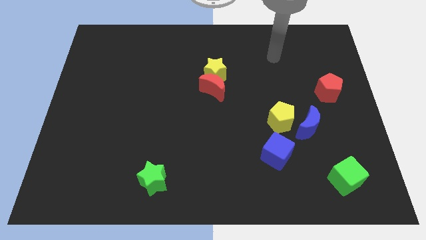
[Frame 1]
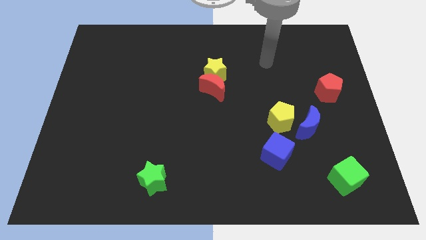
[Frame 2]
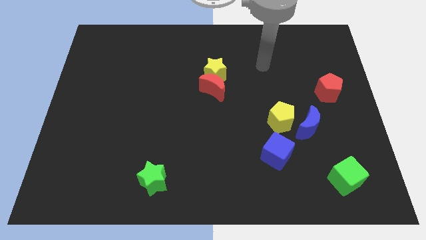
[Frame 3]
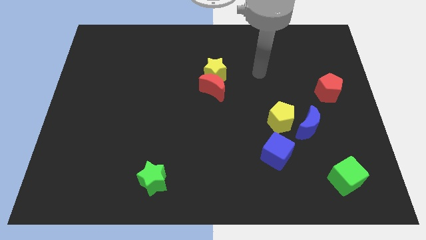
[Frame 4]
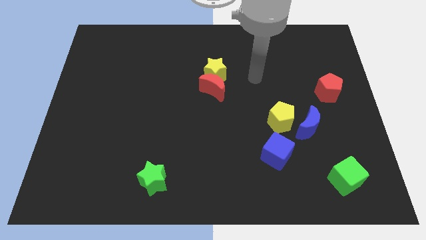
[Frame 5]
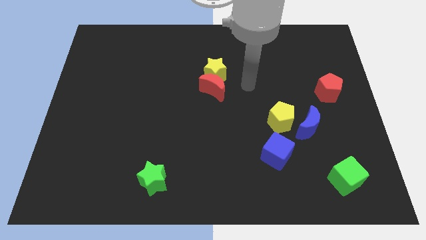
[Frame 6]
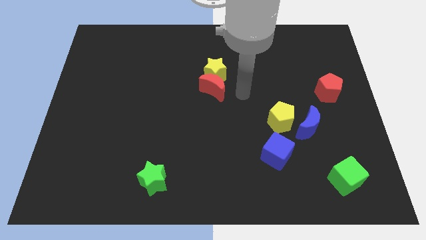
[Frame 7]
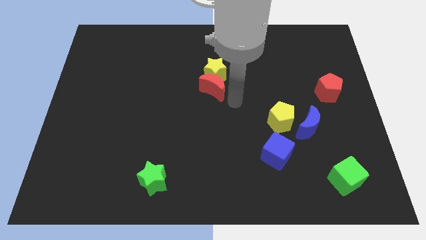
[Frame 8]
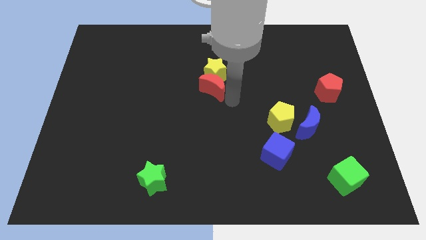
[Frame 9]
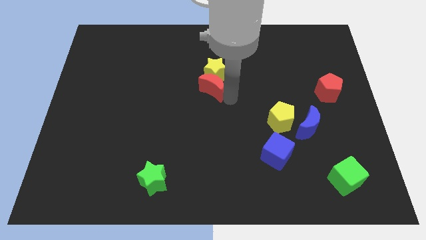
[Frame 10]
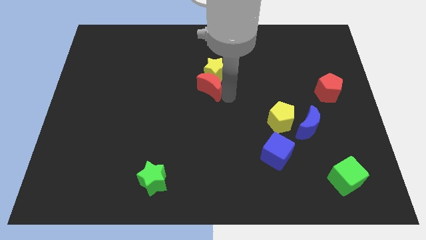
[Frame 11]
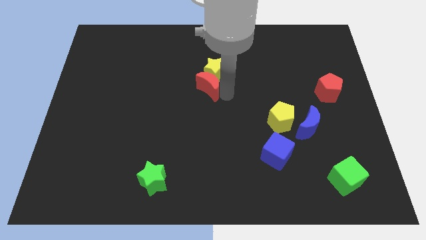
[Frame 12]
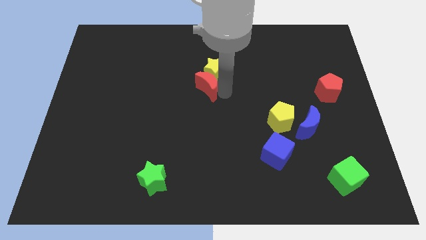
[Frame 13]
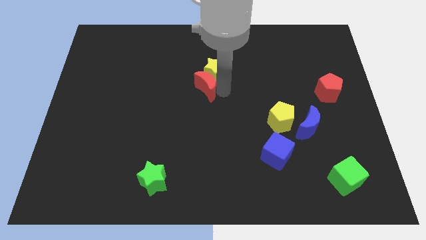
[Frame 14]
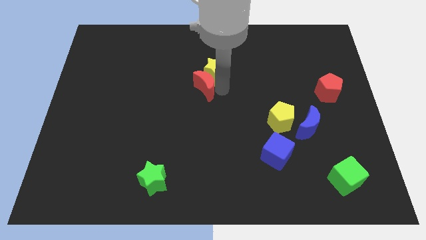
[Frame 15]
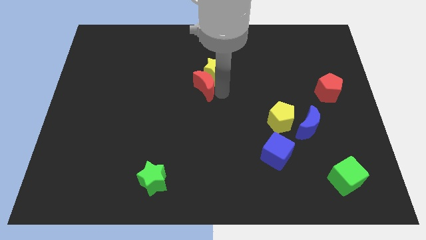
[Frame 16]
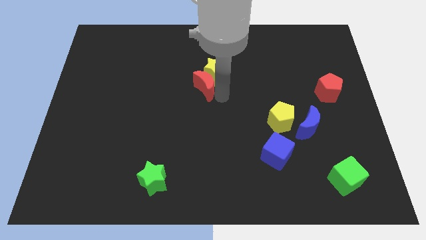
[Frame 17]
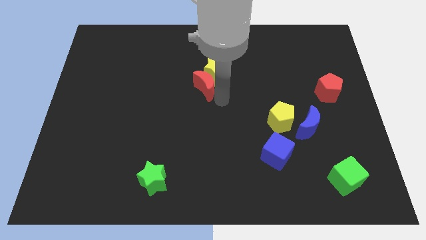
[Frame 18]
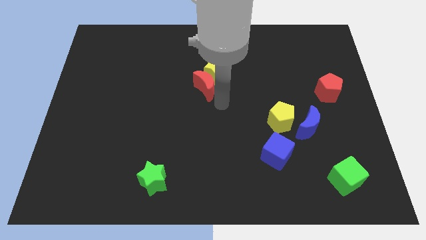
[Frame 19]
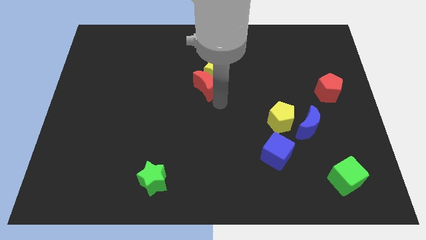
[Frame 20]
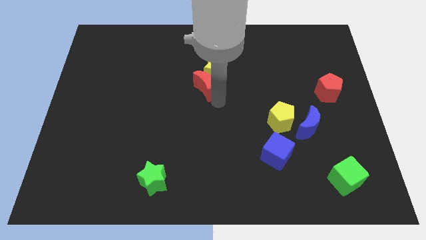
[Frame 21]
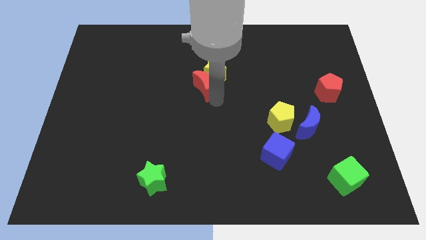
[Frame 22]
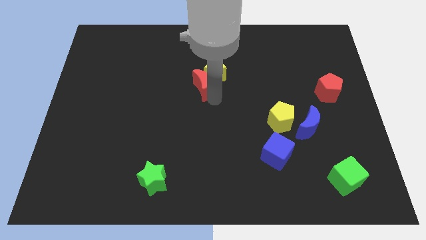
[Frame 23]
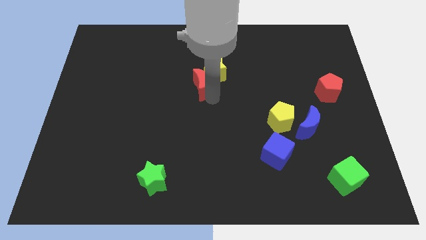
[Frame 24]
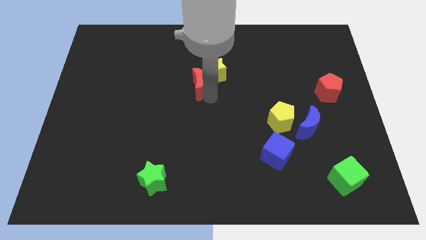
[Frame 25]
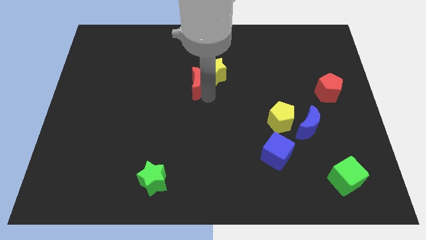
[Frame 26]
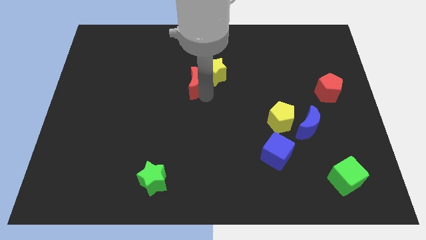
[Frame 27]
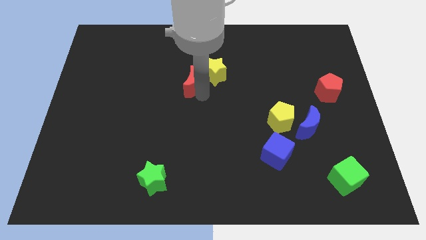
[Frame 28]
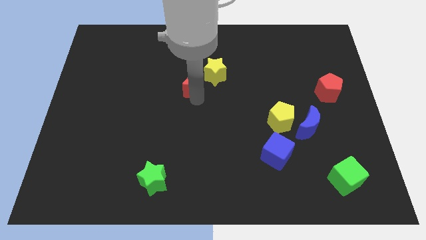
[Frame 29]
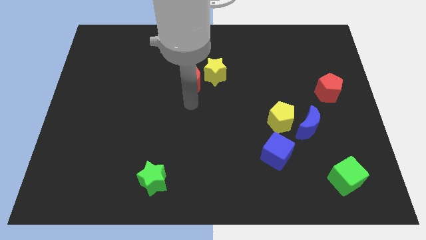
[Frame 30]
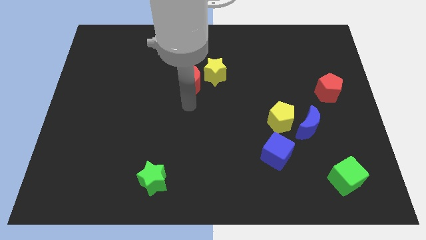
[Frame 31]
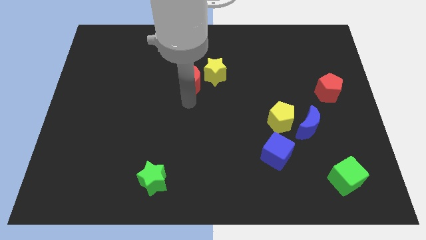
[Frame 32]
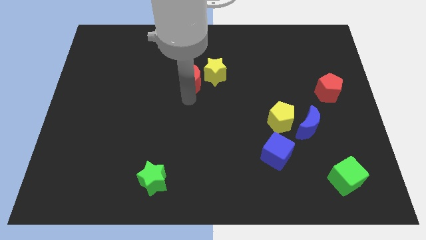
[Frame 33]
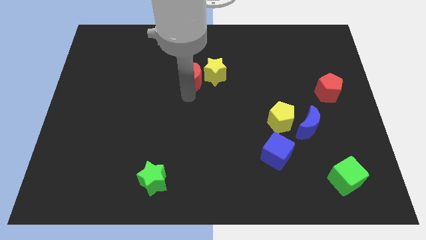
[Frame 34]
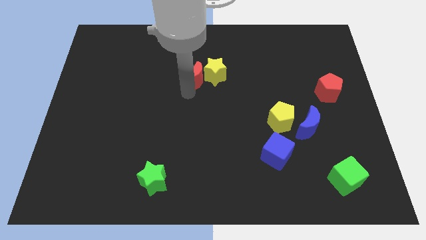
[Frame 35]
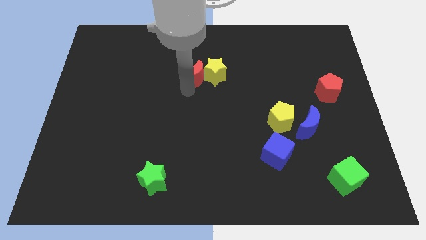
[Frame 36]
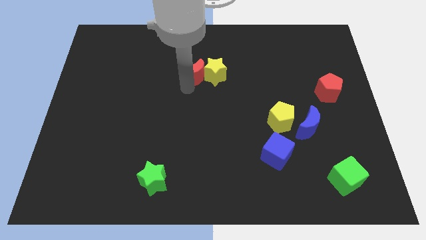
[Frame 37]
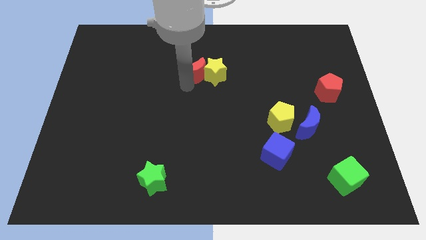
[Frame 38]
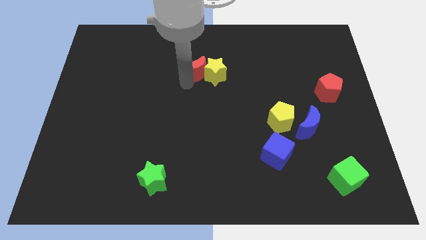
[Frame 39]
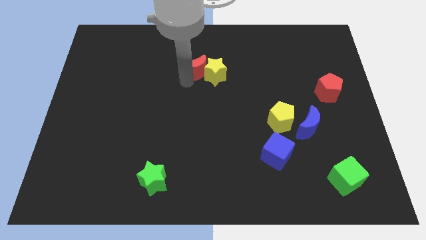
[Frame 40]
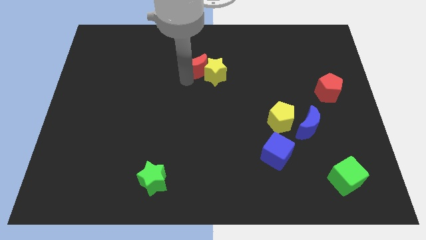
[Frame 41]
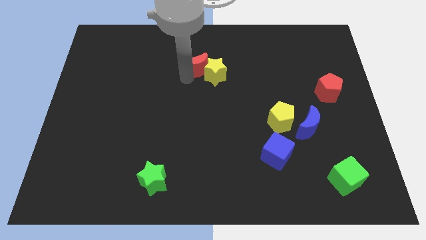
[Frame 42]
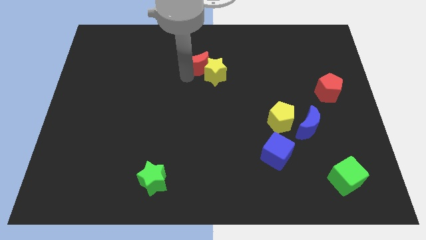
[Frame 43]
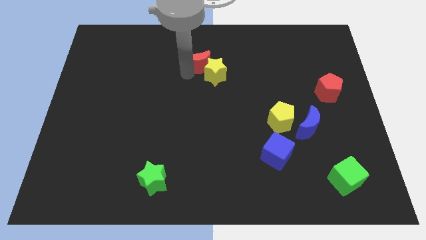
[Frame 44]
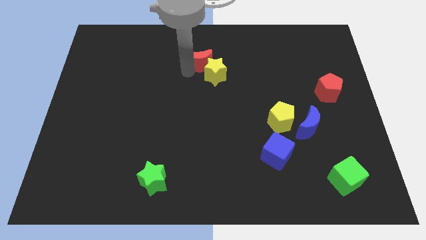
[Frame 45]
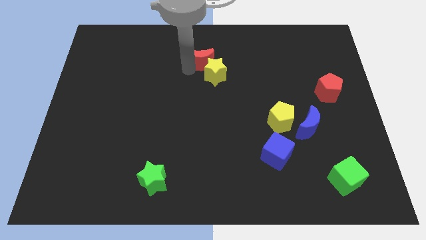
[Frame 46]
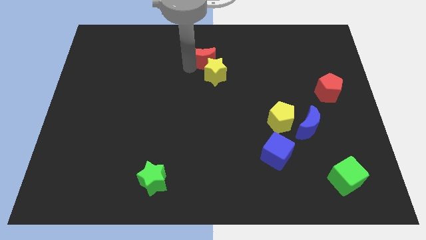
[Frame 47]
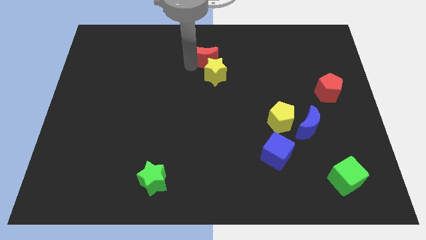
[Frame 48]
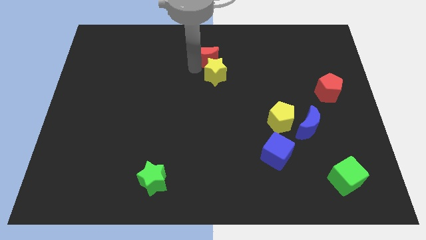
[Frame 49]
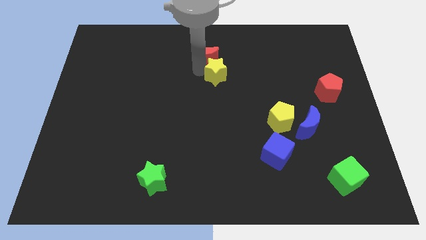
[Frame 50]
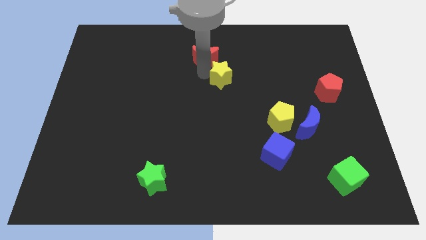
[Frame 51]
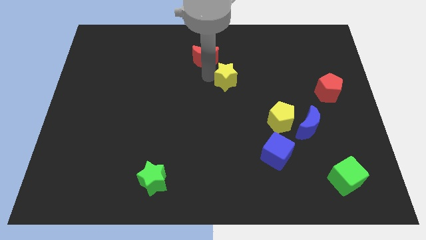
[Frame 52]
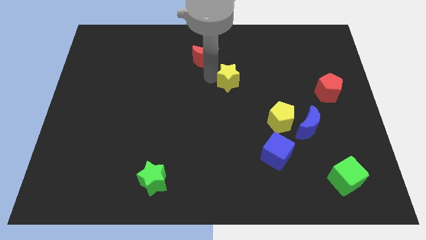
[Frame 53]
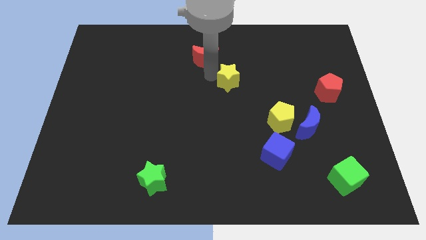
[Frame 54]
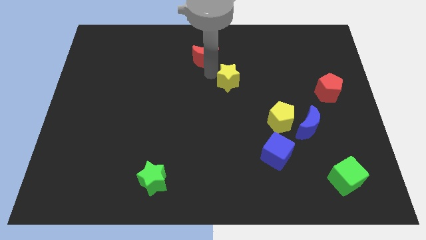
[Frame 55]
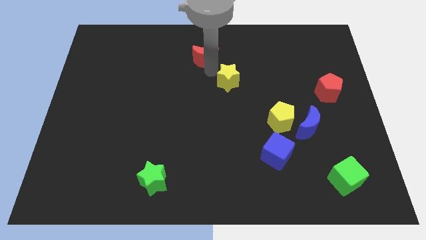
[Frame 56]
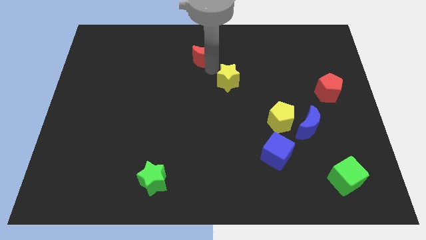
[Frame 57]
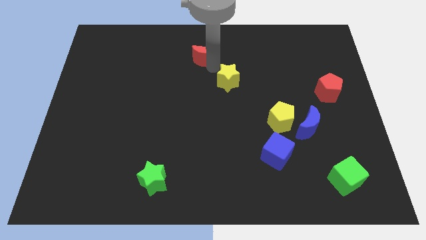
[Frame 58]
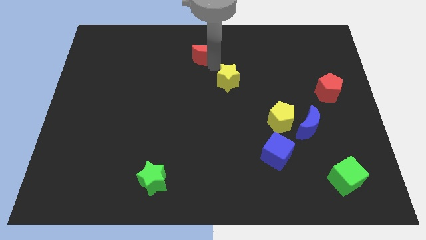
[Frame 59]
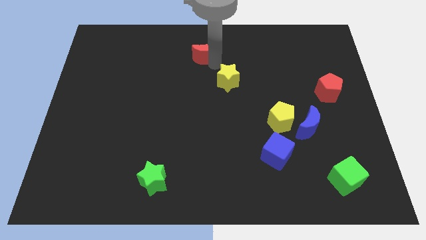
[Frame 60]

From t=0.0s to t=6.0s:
slide the red moon to the towards your base
